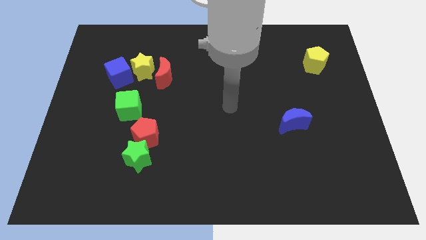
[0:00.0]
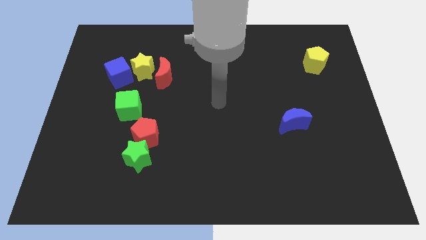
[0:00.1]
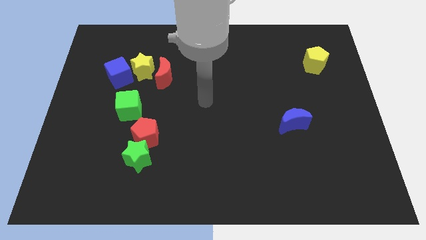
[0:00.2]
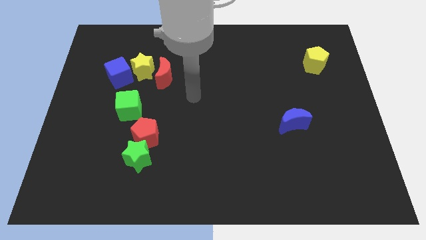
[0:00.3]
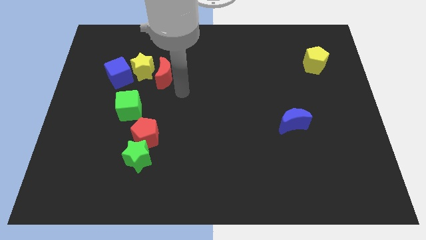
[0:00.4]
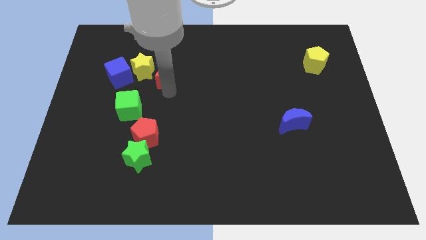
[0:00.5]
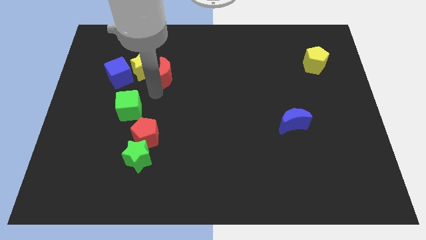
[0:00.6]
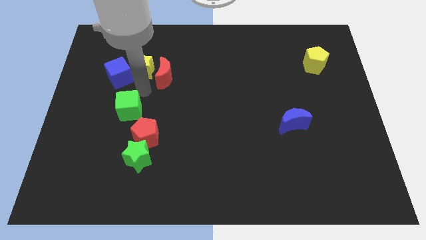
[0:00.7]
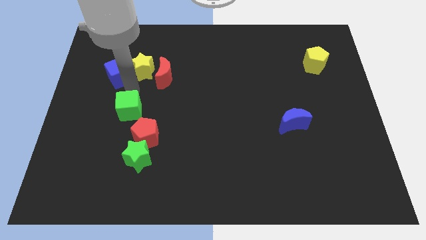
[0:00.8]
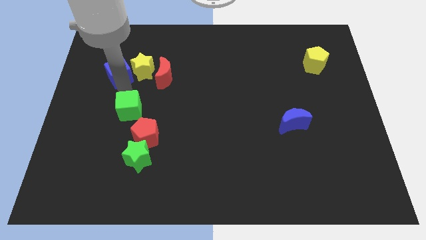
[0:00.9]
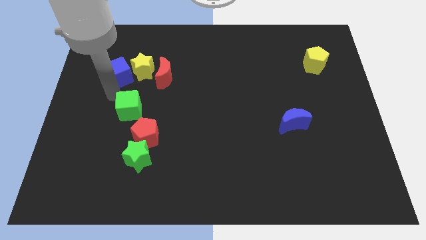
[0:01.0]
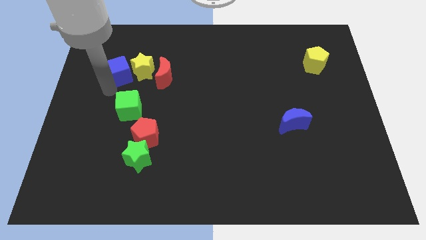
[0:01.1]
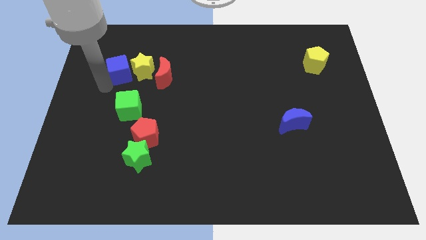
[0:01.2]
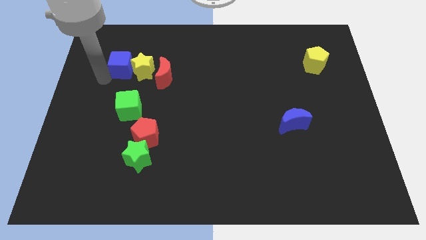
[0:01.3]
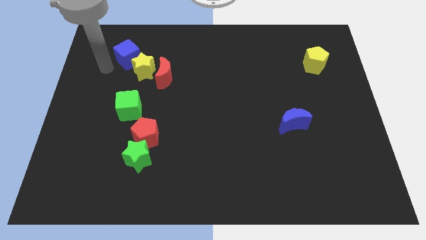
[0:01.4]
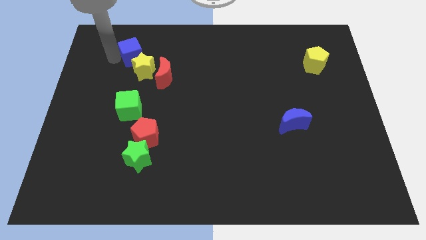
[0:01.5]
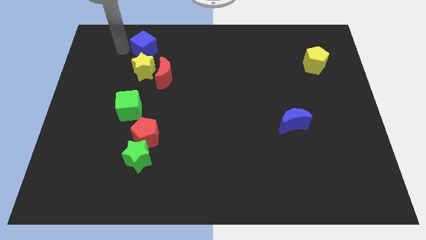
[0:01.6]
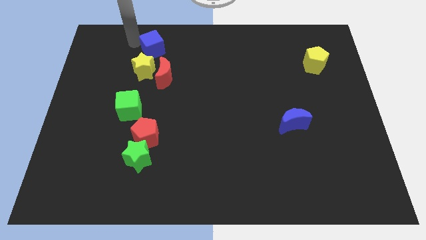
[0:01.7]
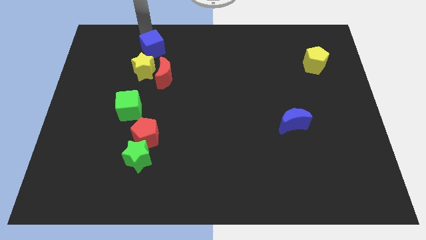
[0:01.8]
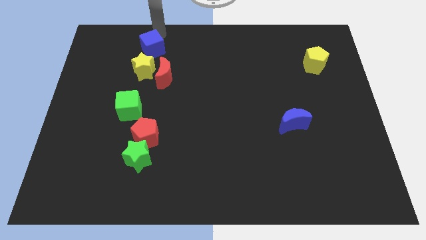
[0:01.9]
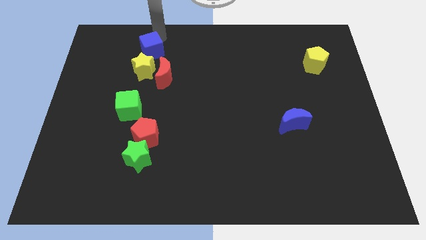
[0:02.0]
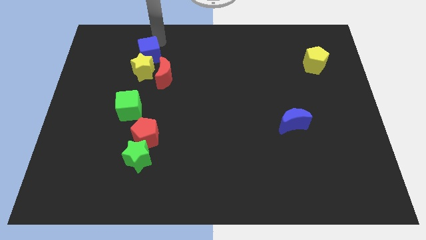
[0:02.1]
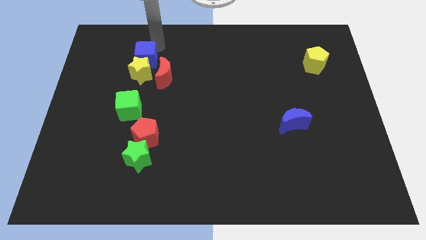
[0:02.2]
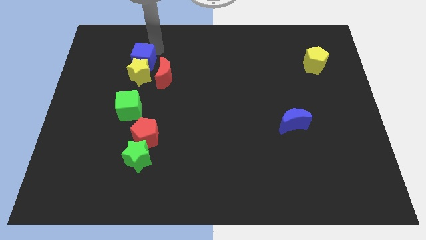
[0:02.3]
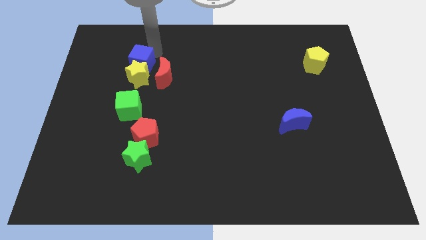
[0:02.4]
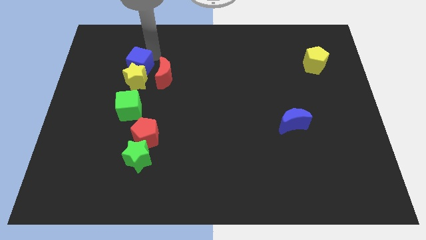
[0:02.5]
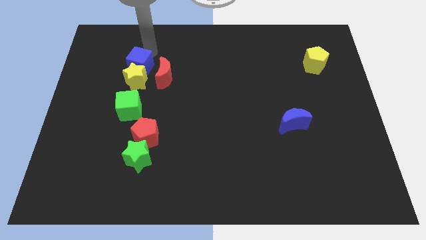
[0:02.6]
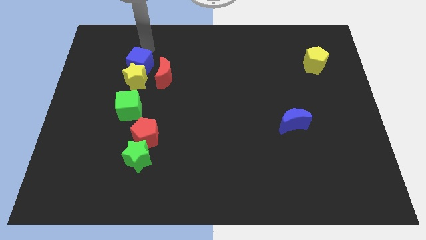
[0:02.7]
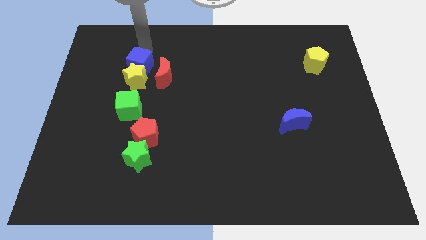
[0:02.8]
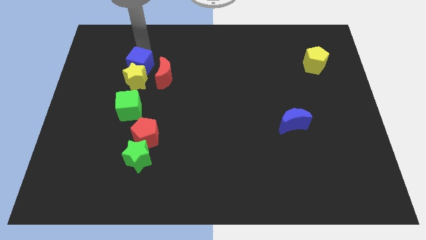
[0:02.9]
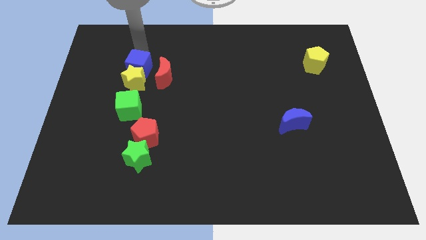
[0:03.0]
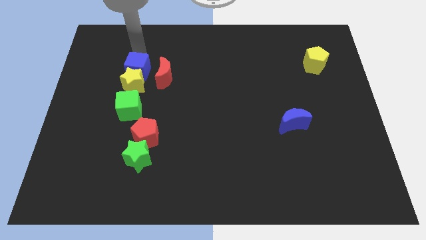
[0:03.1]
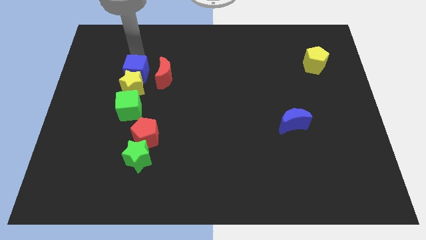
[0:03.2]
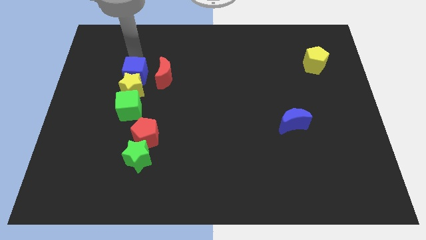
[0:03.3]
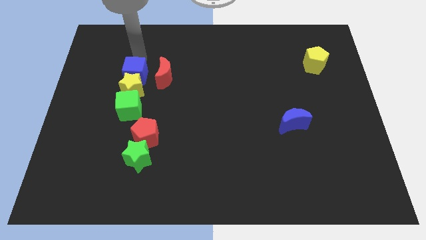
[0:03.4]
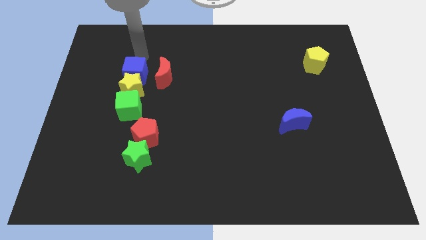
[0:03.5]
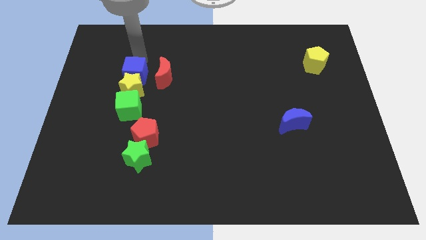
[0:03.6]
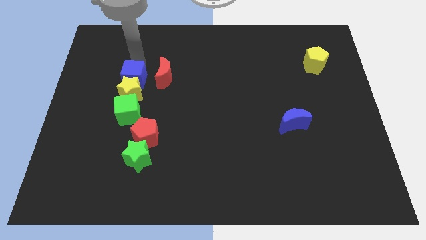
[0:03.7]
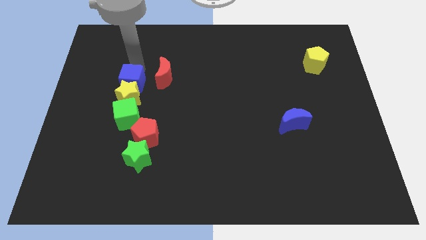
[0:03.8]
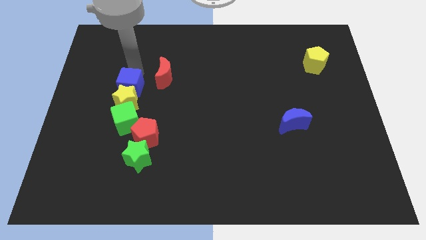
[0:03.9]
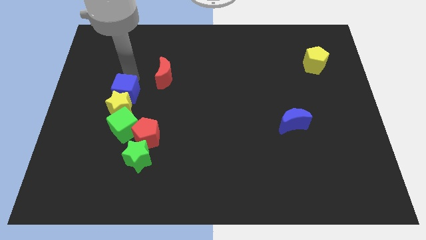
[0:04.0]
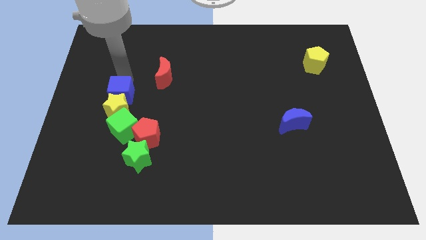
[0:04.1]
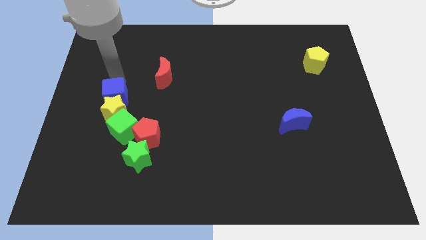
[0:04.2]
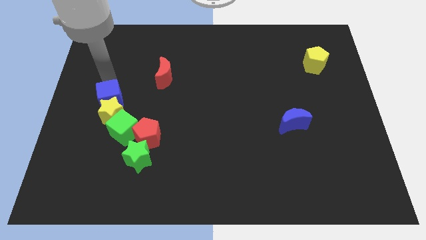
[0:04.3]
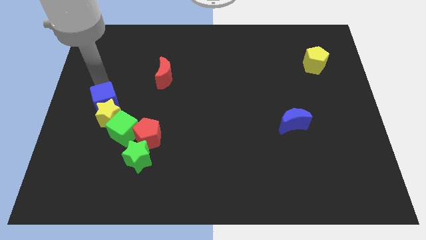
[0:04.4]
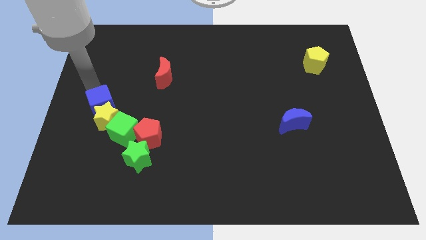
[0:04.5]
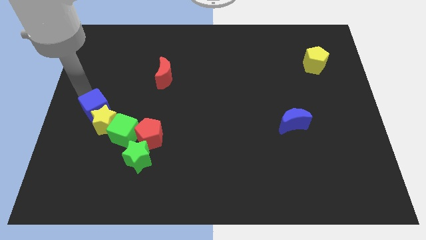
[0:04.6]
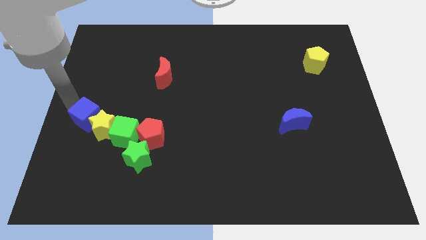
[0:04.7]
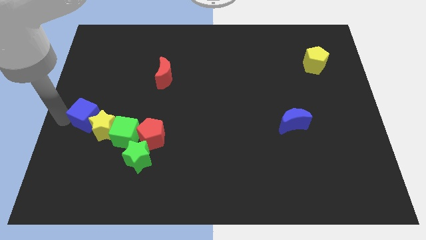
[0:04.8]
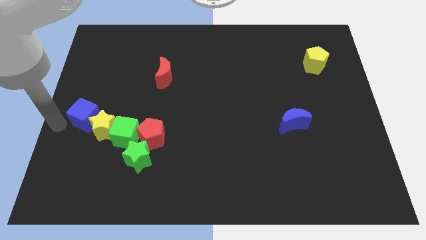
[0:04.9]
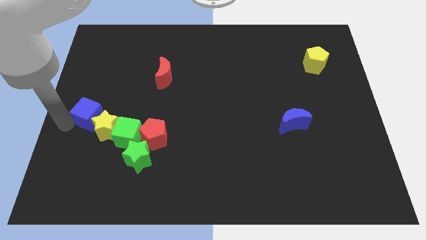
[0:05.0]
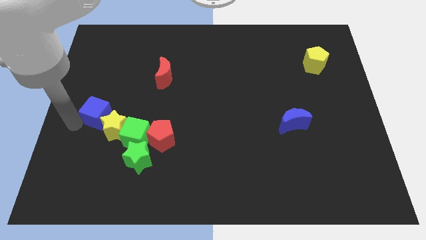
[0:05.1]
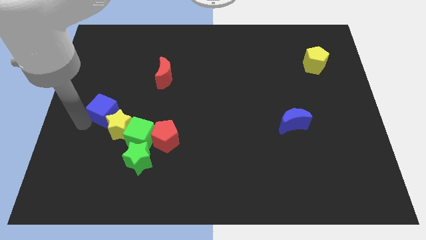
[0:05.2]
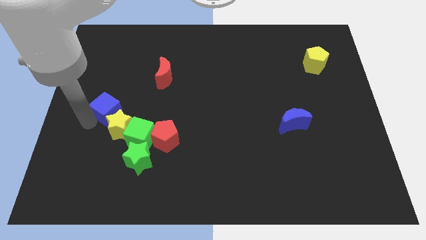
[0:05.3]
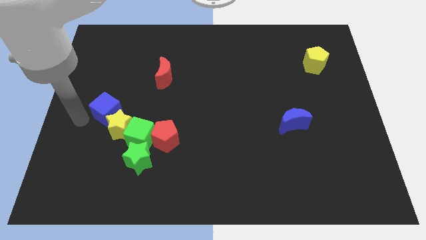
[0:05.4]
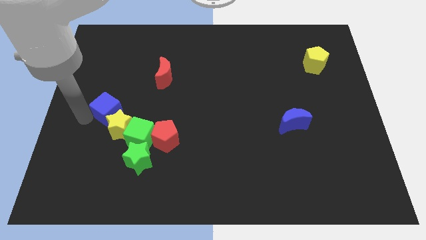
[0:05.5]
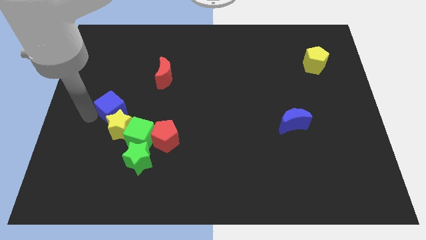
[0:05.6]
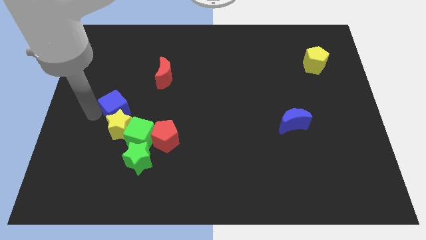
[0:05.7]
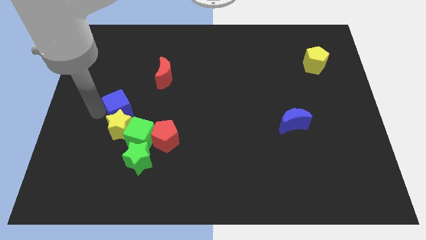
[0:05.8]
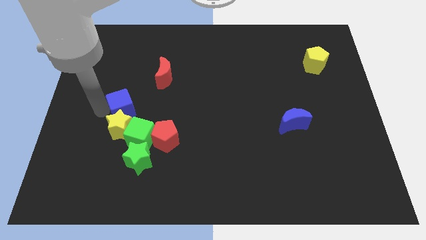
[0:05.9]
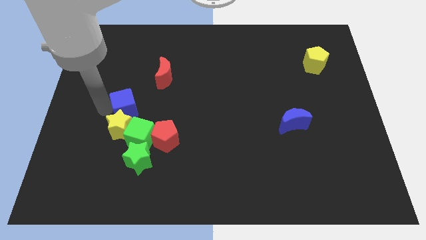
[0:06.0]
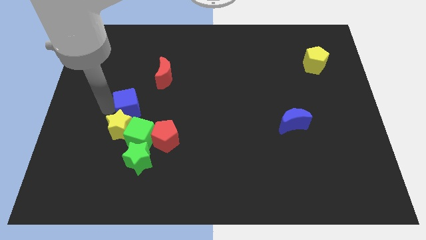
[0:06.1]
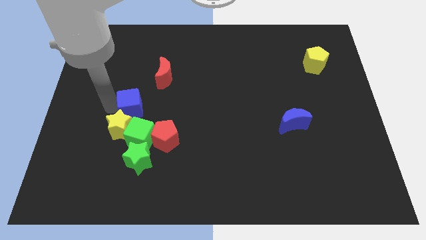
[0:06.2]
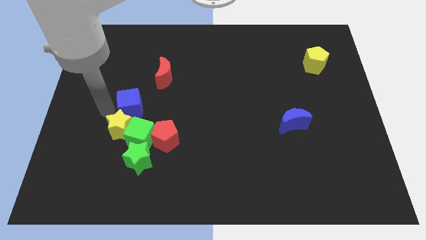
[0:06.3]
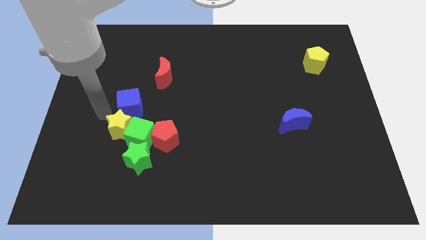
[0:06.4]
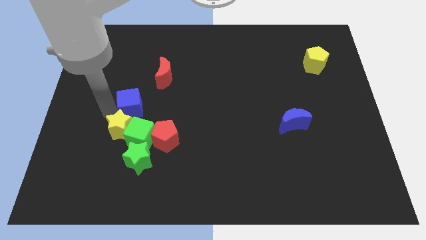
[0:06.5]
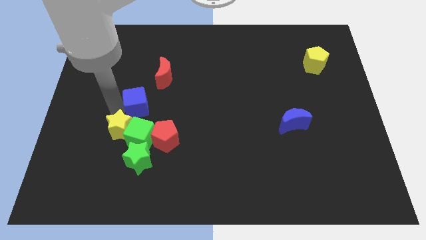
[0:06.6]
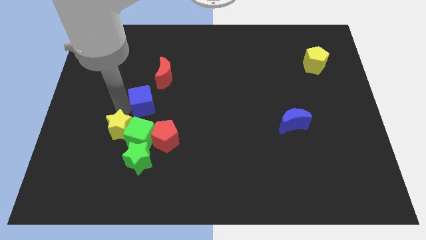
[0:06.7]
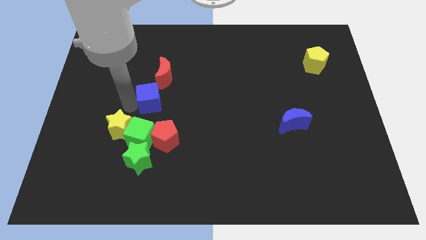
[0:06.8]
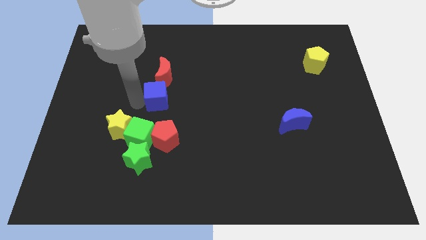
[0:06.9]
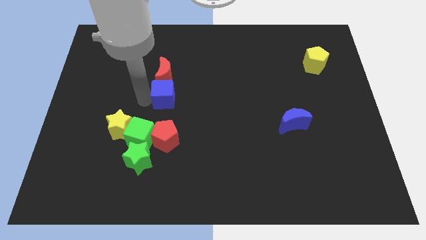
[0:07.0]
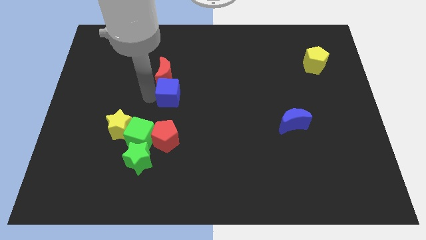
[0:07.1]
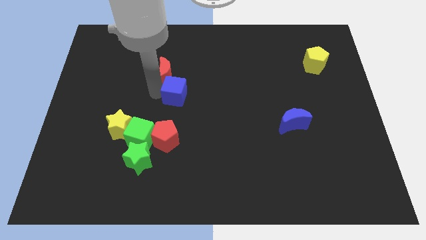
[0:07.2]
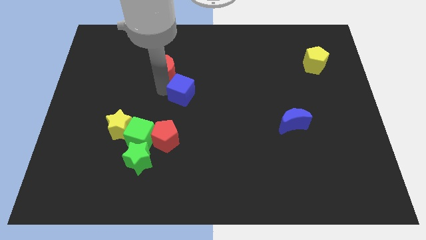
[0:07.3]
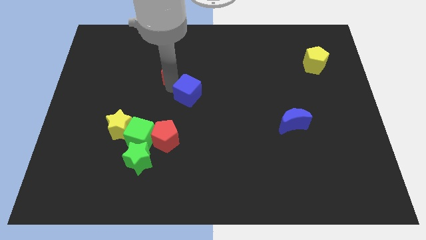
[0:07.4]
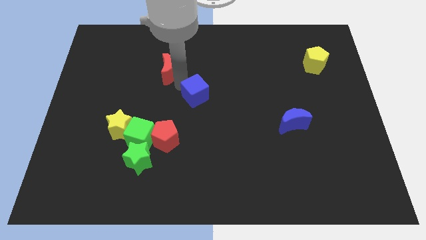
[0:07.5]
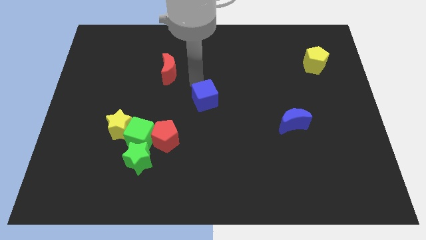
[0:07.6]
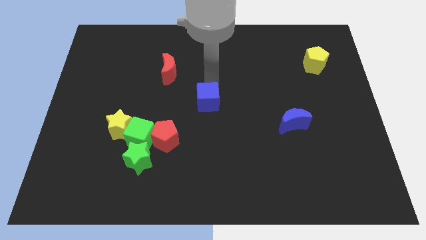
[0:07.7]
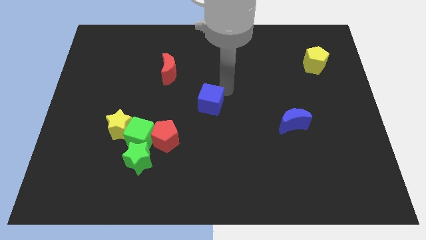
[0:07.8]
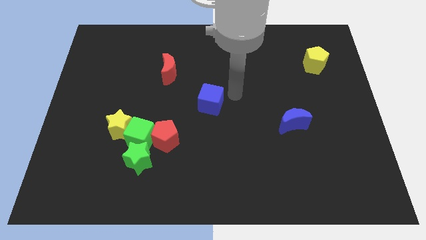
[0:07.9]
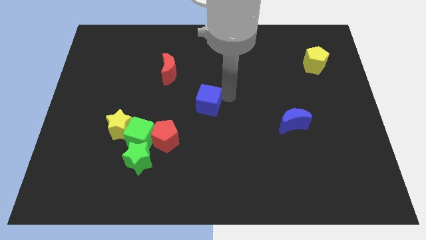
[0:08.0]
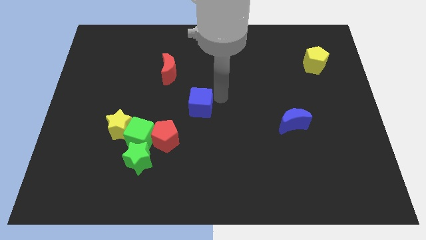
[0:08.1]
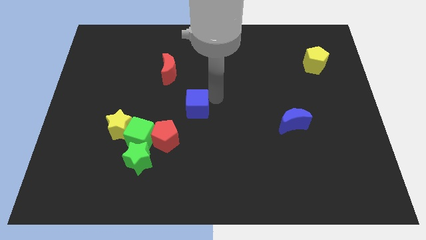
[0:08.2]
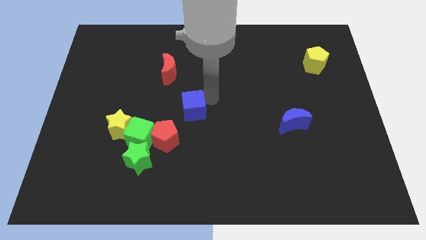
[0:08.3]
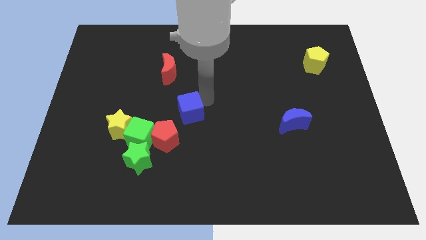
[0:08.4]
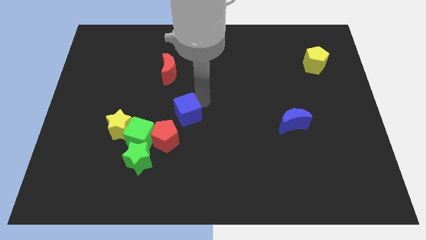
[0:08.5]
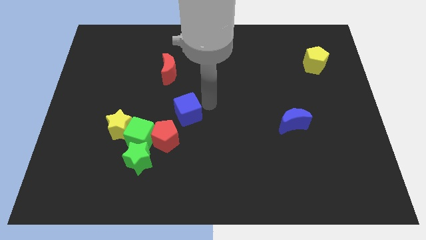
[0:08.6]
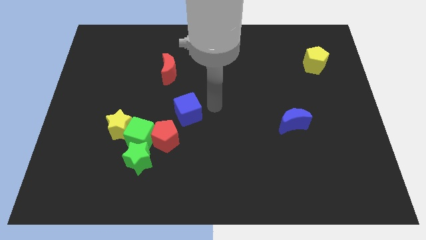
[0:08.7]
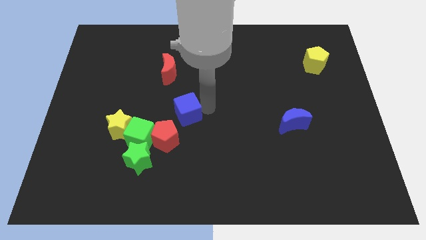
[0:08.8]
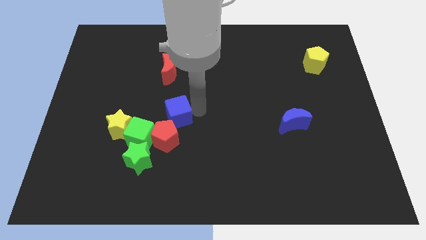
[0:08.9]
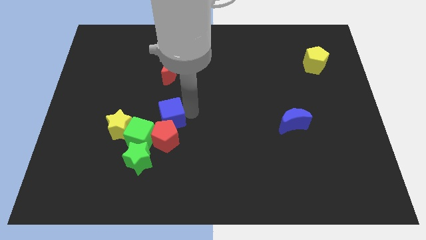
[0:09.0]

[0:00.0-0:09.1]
put the blue cube close to the red pentagon
